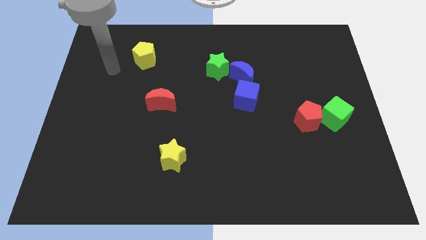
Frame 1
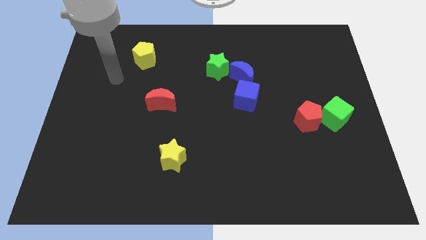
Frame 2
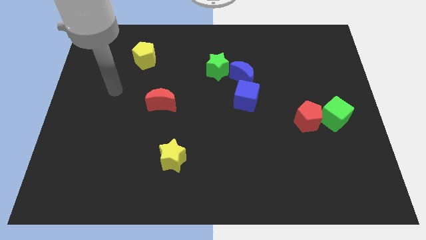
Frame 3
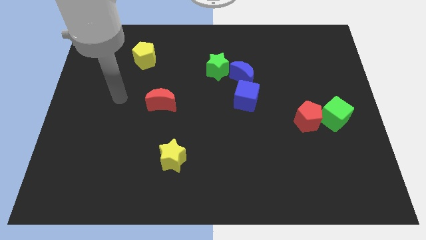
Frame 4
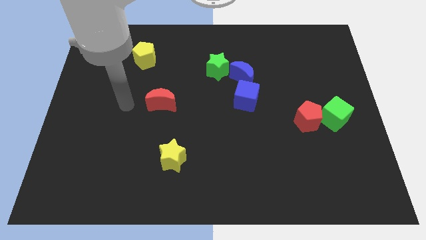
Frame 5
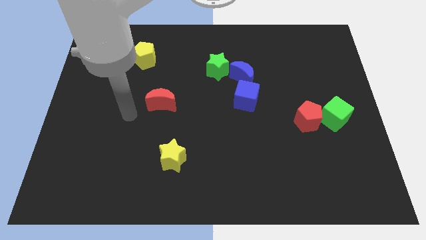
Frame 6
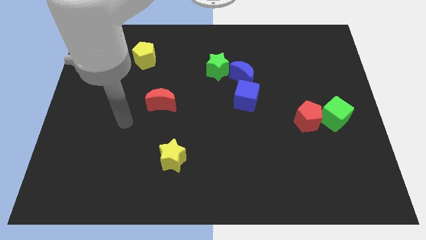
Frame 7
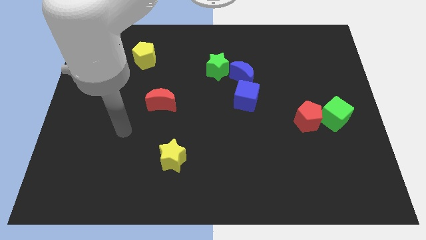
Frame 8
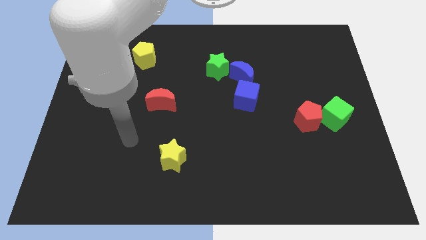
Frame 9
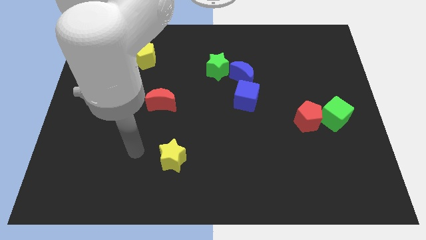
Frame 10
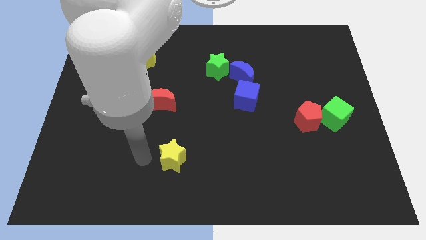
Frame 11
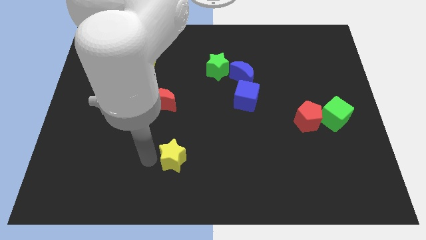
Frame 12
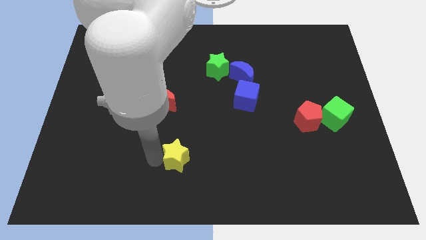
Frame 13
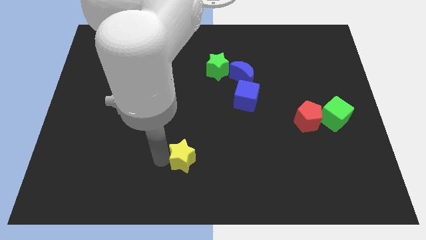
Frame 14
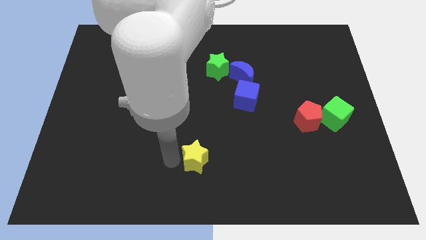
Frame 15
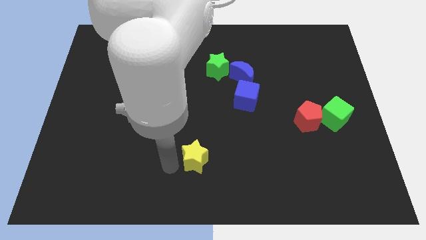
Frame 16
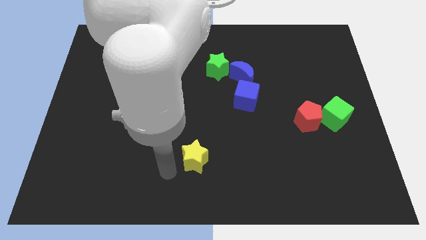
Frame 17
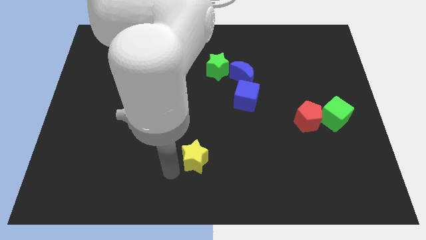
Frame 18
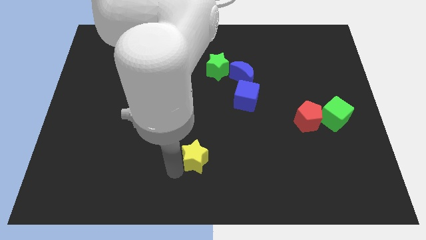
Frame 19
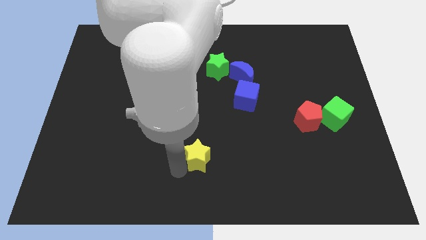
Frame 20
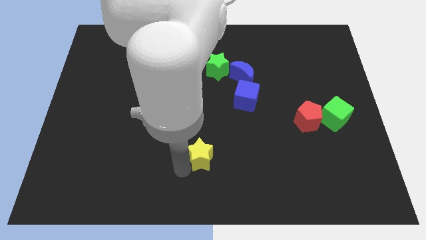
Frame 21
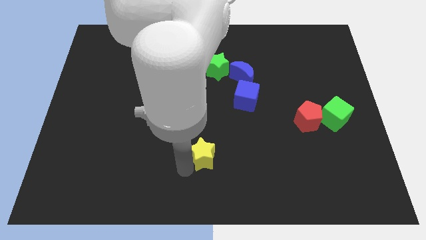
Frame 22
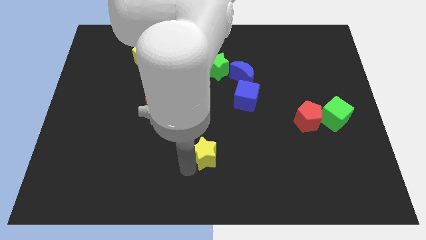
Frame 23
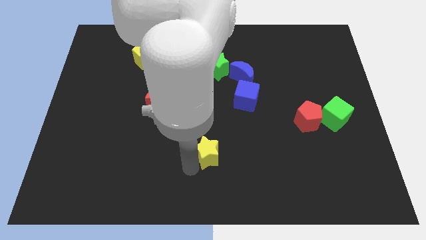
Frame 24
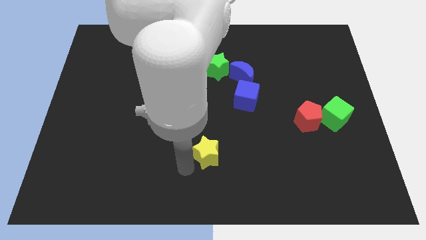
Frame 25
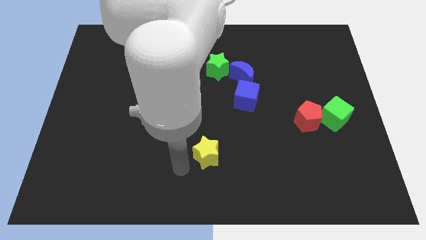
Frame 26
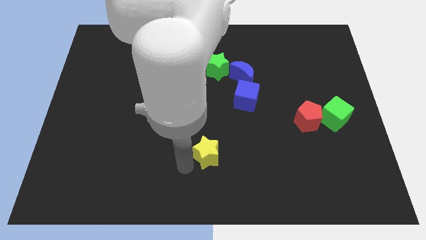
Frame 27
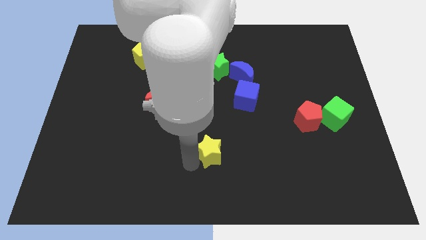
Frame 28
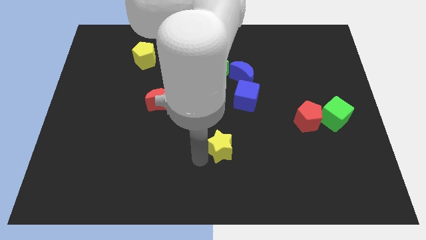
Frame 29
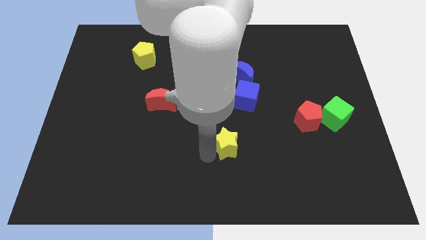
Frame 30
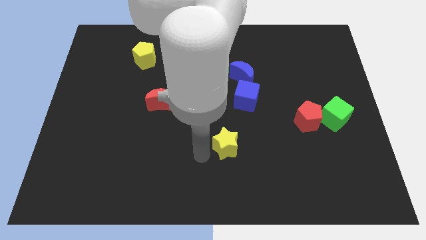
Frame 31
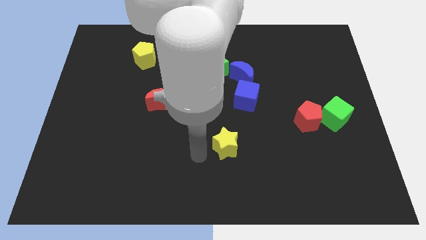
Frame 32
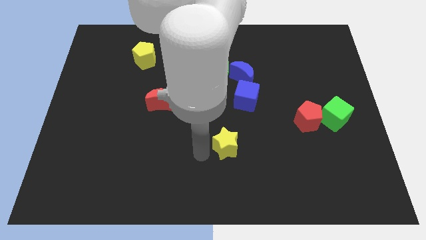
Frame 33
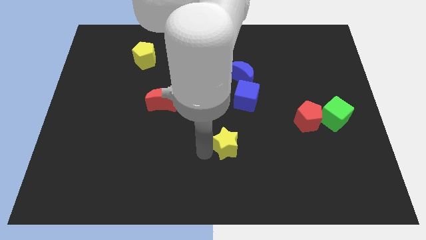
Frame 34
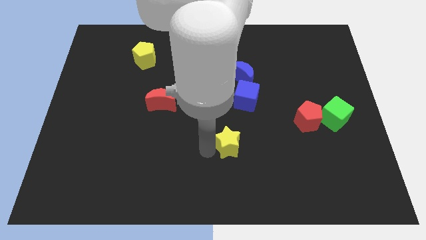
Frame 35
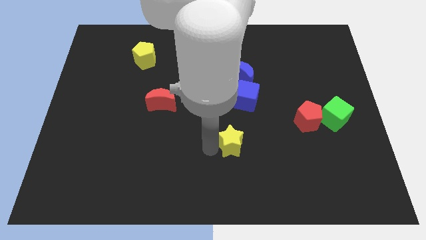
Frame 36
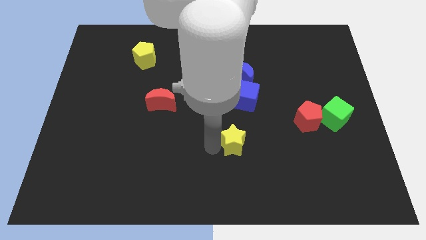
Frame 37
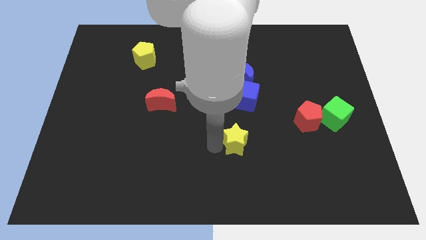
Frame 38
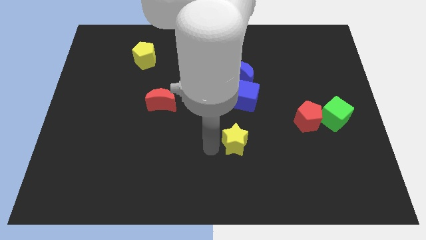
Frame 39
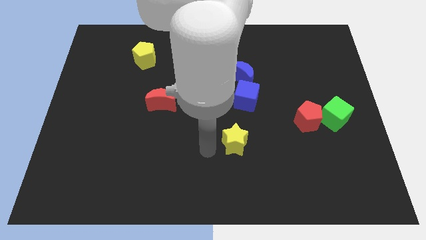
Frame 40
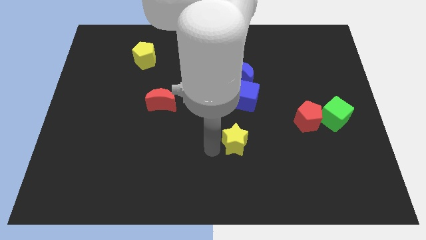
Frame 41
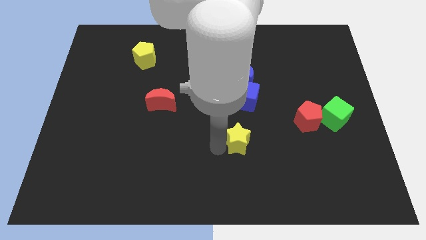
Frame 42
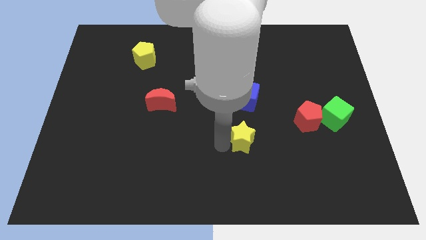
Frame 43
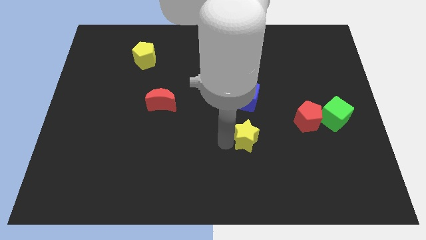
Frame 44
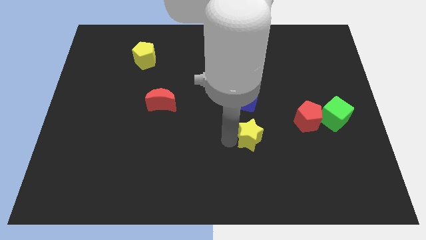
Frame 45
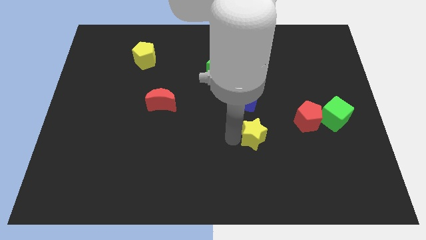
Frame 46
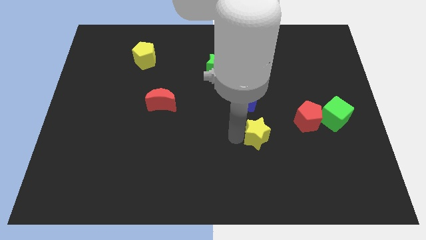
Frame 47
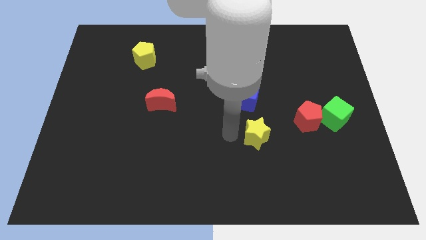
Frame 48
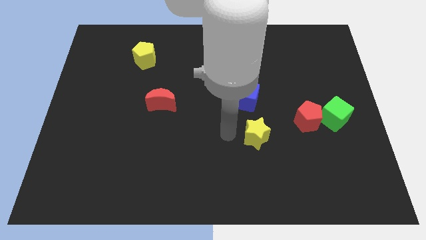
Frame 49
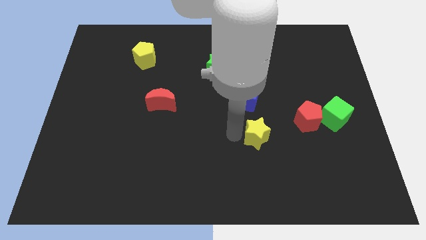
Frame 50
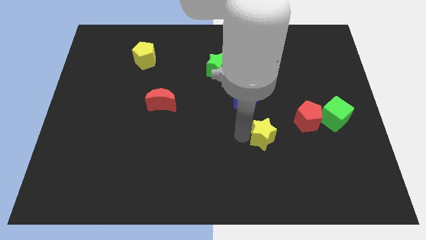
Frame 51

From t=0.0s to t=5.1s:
slide the yellow star diagonally down and to the left of the red pentagon

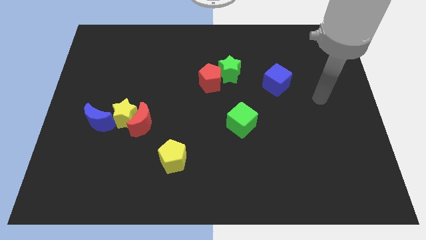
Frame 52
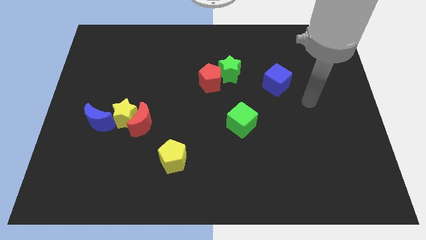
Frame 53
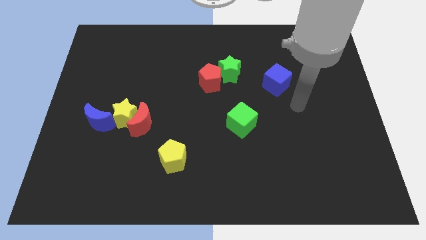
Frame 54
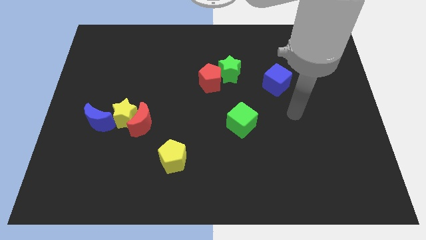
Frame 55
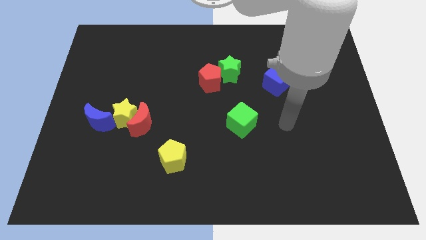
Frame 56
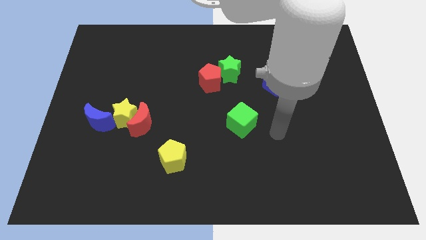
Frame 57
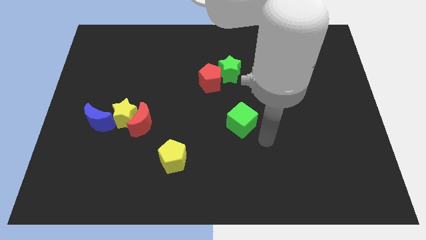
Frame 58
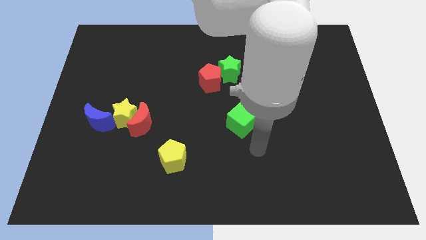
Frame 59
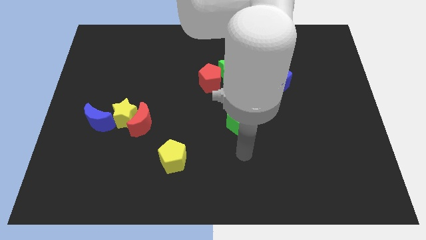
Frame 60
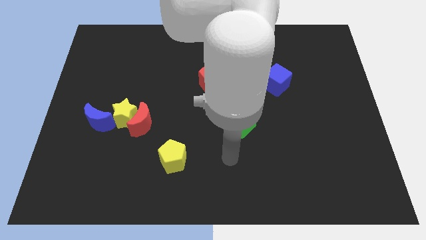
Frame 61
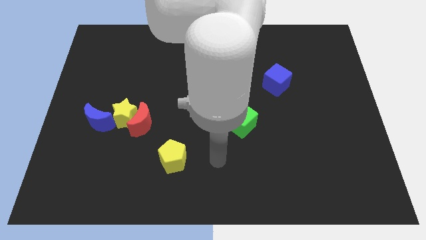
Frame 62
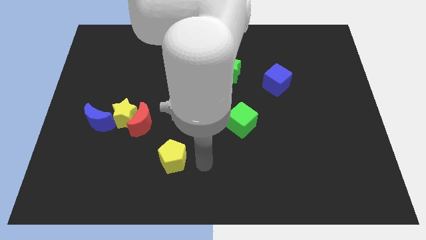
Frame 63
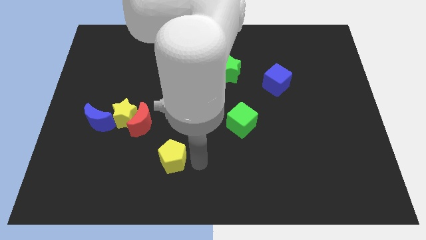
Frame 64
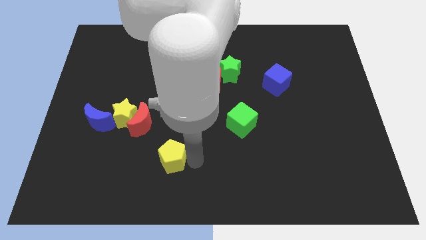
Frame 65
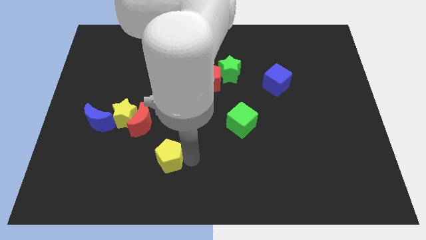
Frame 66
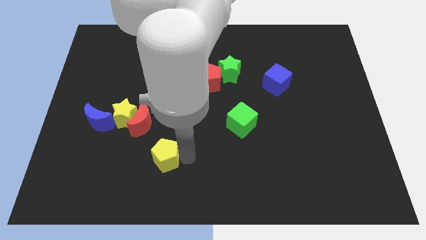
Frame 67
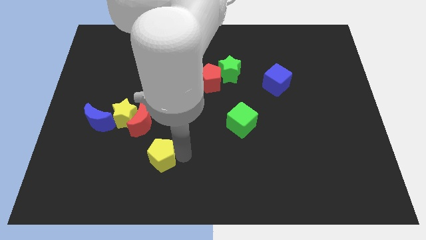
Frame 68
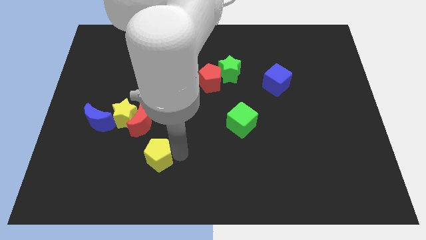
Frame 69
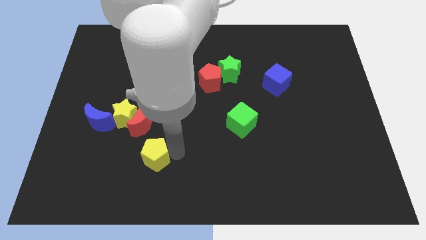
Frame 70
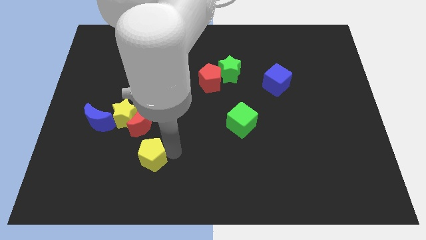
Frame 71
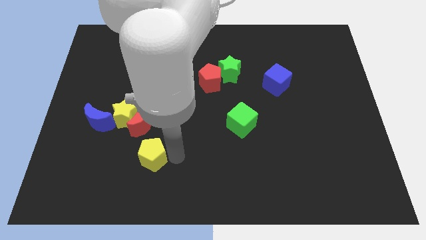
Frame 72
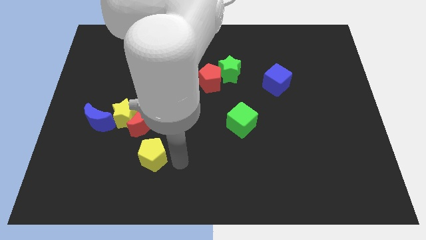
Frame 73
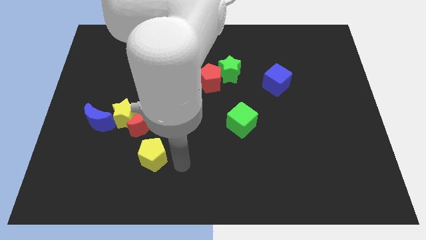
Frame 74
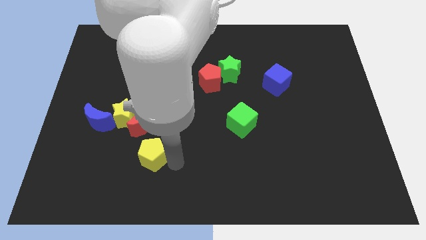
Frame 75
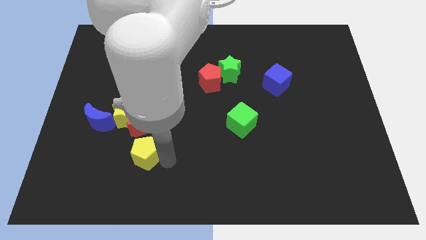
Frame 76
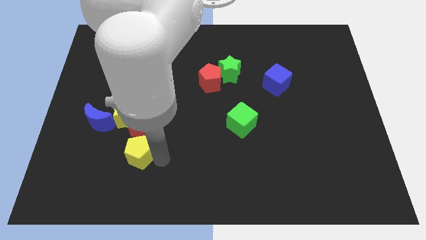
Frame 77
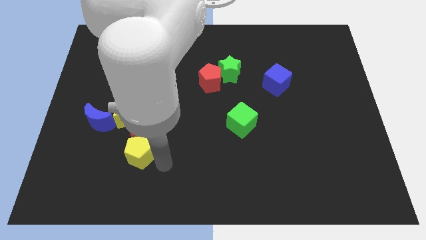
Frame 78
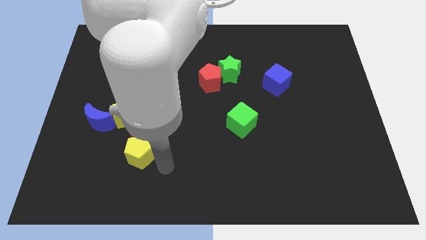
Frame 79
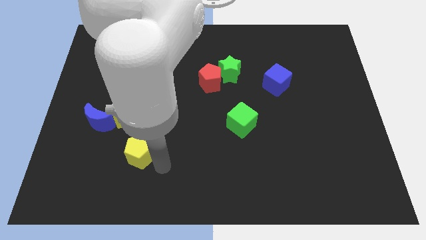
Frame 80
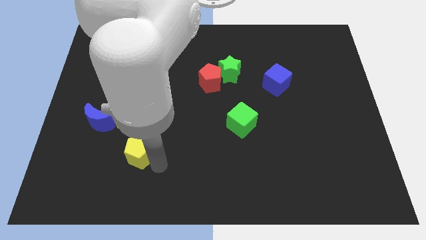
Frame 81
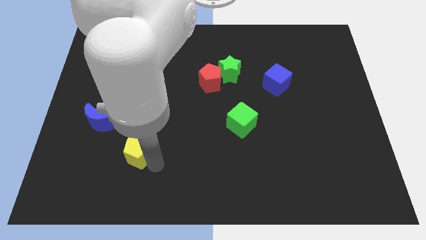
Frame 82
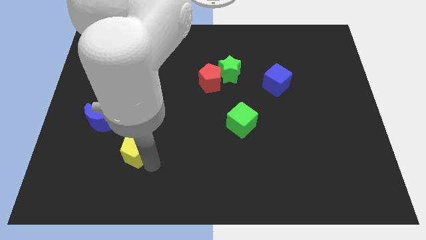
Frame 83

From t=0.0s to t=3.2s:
slide the yellow pentagon diagonally down and to the left of the red moon
